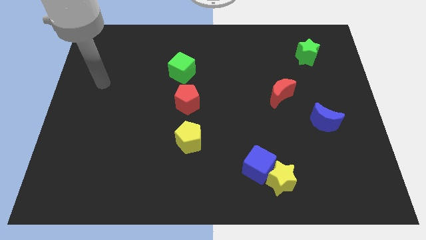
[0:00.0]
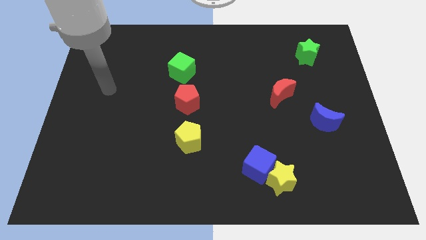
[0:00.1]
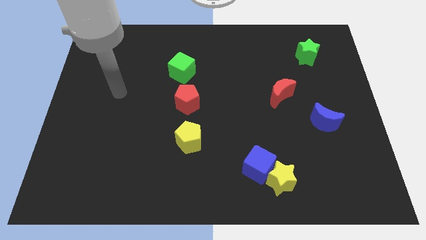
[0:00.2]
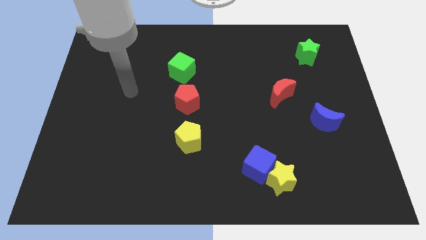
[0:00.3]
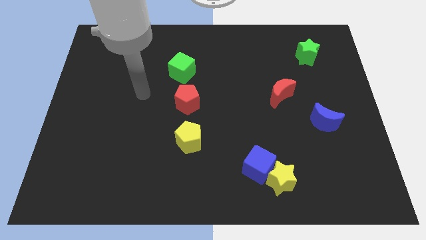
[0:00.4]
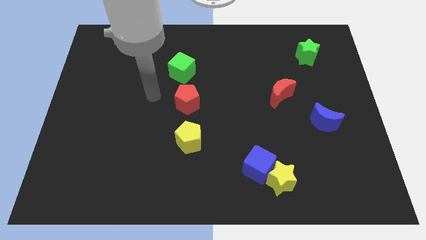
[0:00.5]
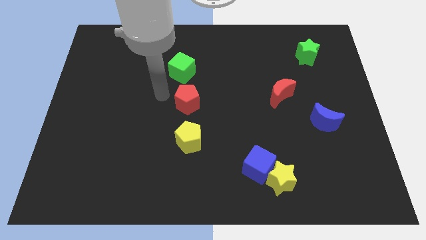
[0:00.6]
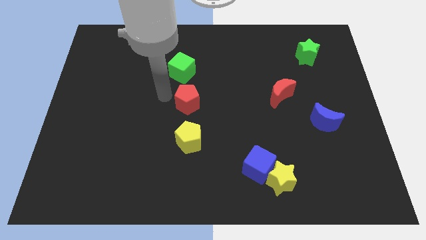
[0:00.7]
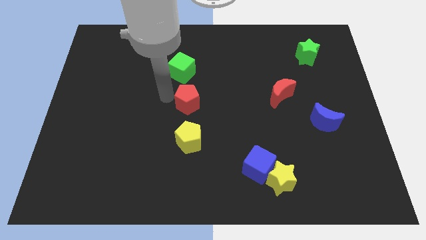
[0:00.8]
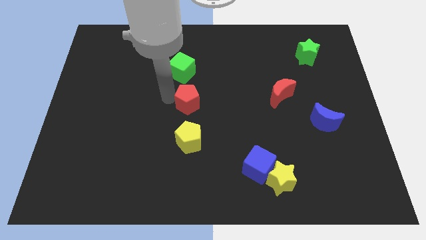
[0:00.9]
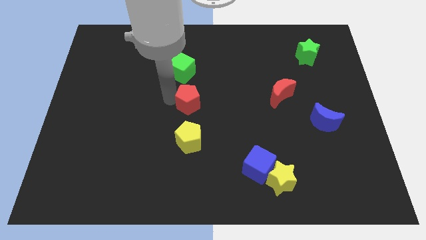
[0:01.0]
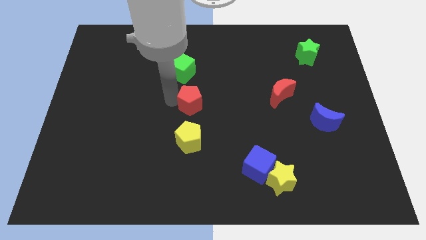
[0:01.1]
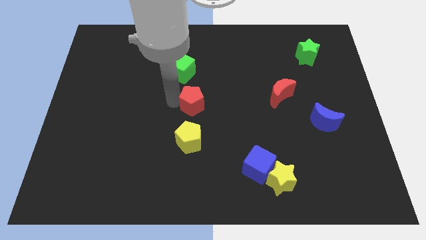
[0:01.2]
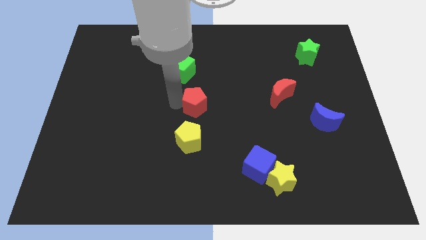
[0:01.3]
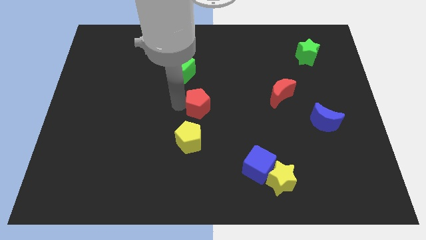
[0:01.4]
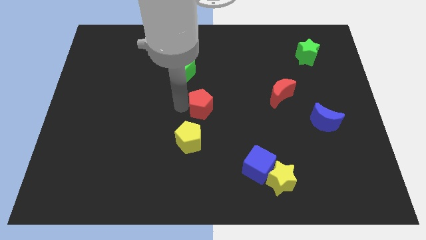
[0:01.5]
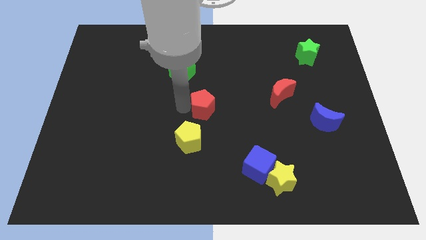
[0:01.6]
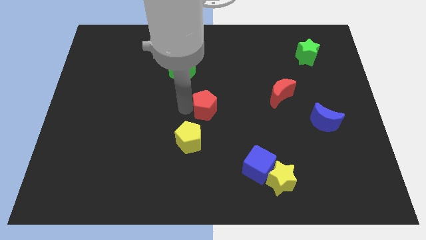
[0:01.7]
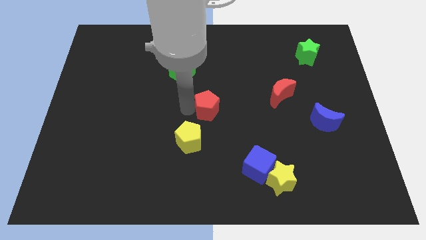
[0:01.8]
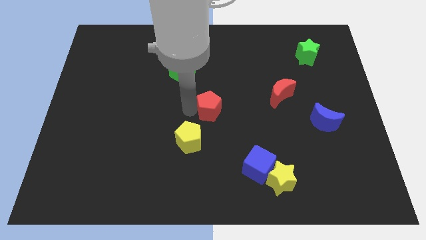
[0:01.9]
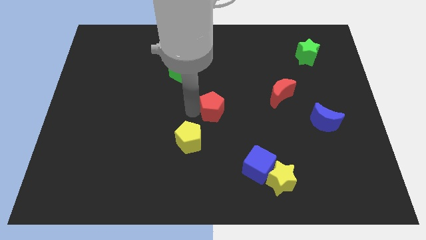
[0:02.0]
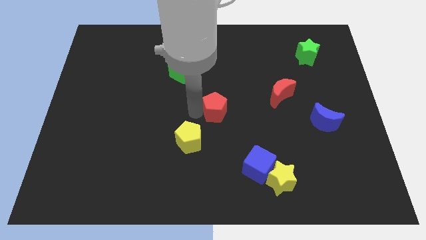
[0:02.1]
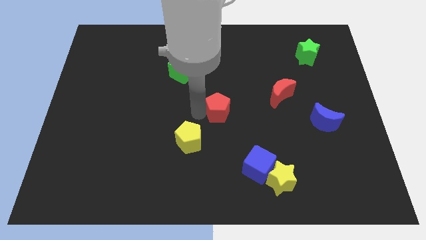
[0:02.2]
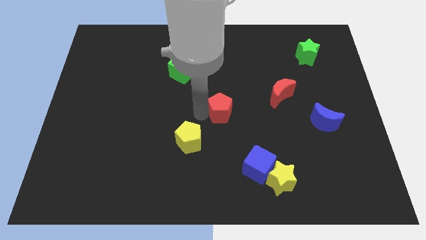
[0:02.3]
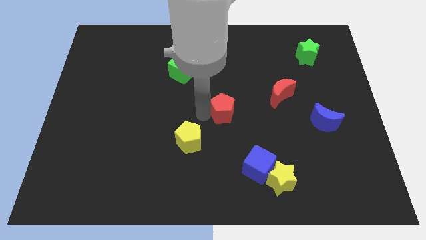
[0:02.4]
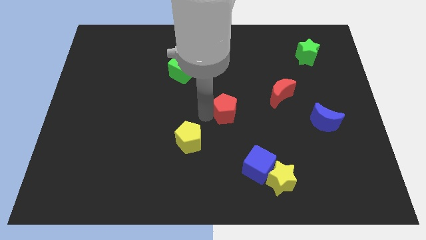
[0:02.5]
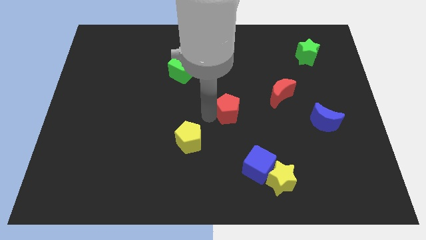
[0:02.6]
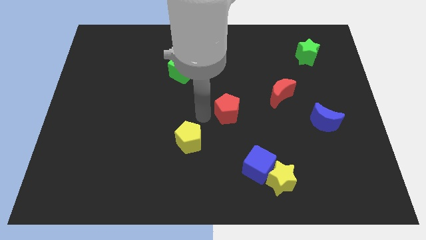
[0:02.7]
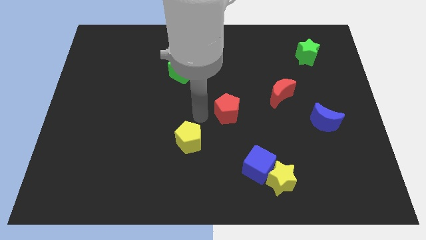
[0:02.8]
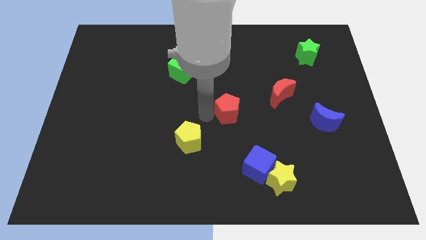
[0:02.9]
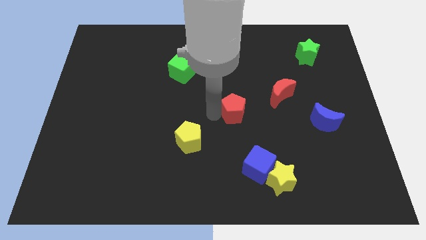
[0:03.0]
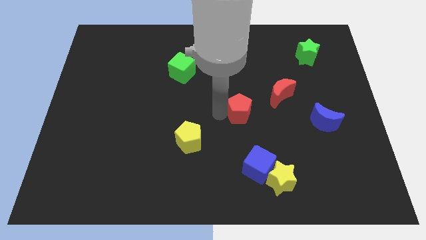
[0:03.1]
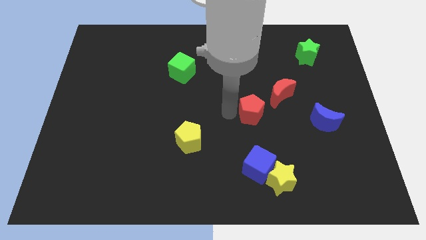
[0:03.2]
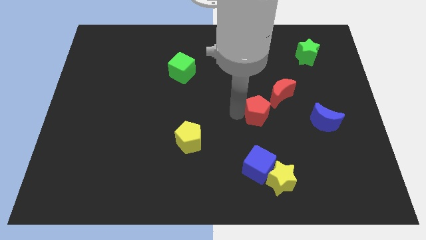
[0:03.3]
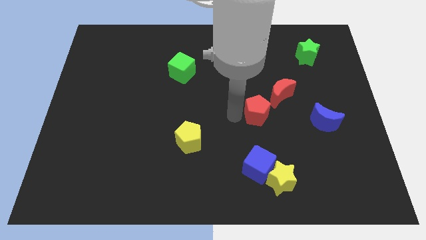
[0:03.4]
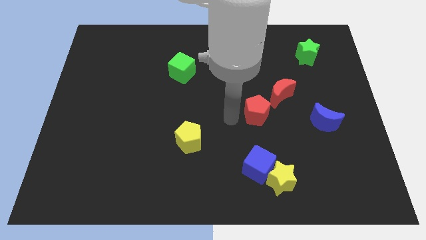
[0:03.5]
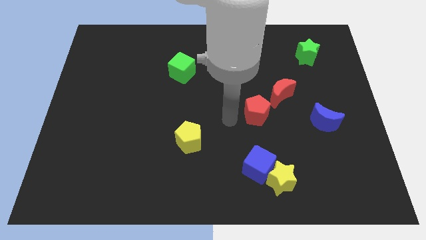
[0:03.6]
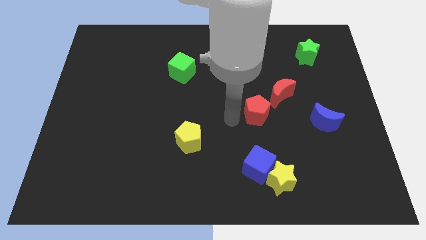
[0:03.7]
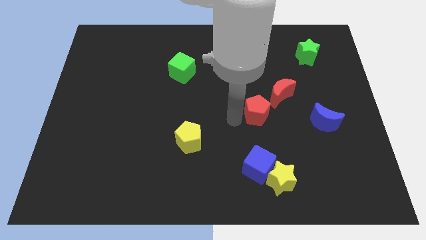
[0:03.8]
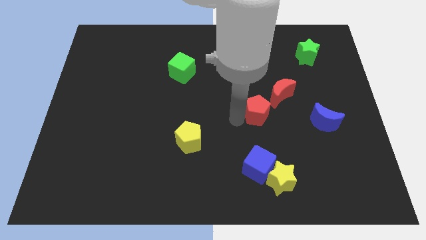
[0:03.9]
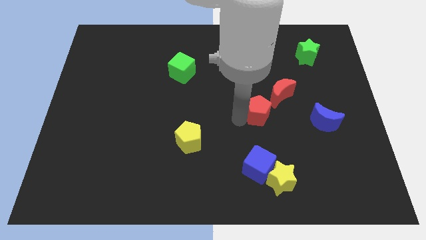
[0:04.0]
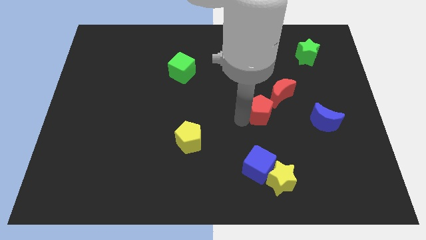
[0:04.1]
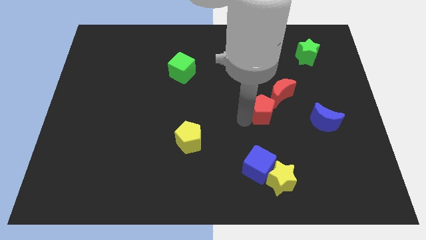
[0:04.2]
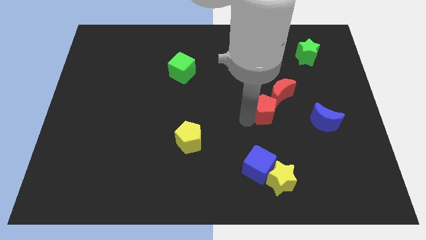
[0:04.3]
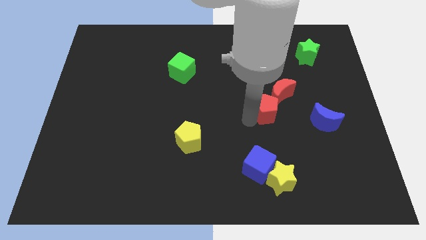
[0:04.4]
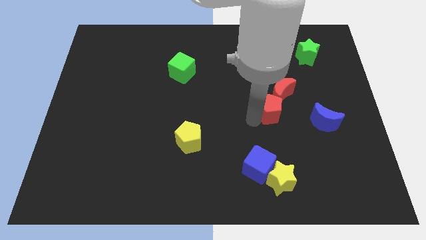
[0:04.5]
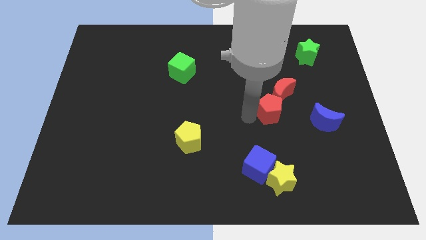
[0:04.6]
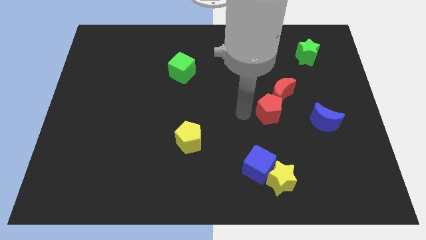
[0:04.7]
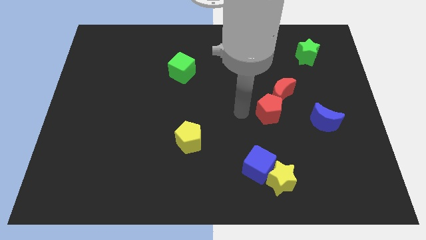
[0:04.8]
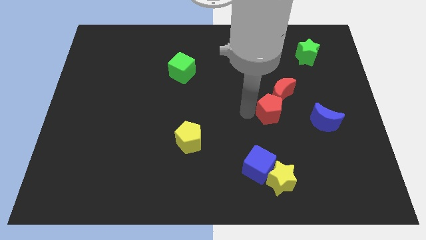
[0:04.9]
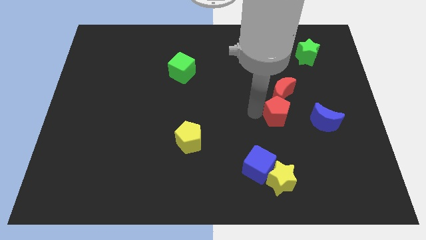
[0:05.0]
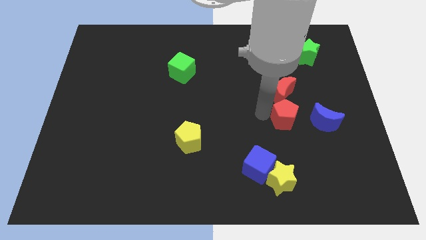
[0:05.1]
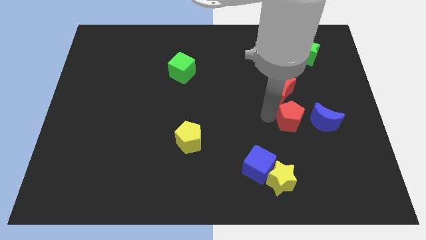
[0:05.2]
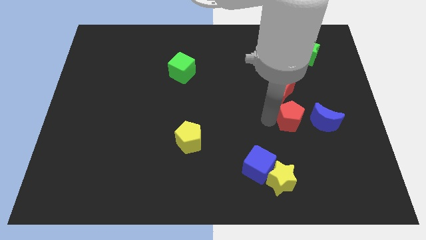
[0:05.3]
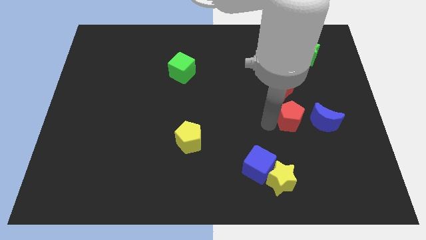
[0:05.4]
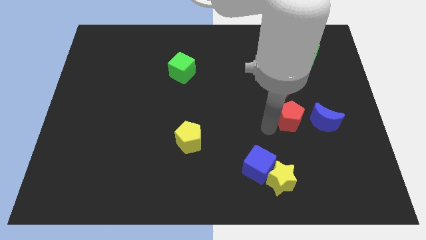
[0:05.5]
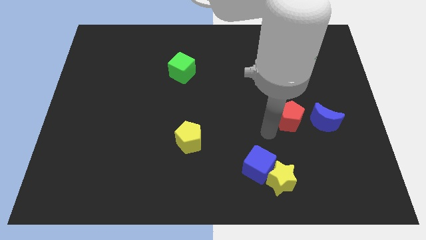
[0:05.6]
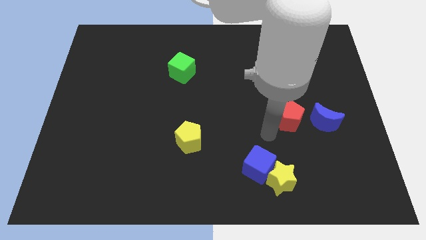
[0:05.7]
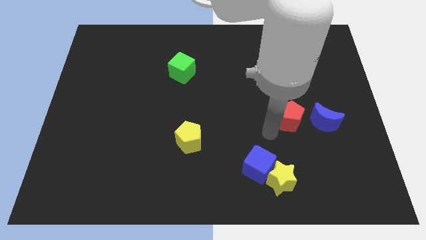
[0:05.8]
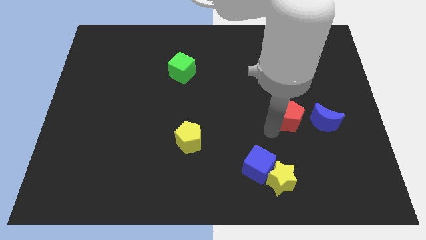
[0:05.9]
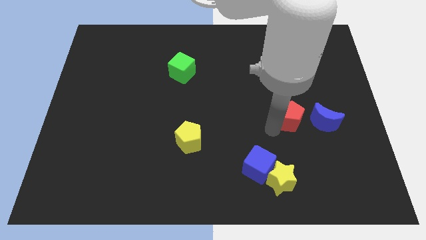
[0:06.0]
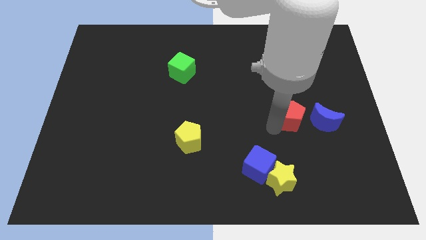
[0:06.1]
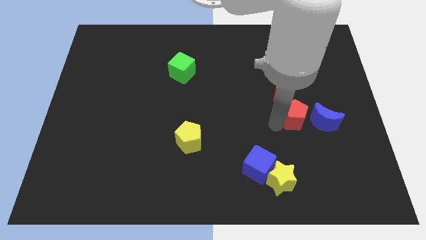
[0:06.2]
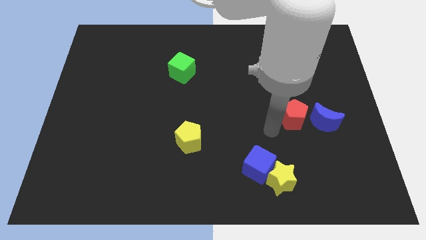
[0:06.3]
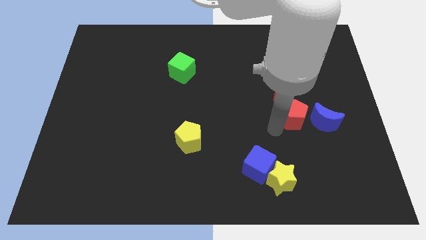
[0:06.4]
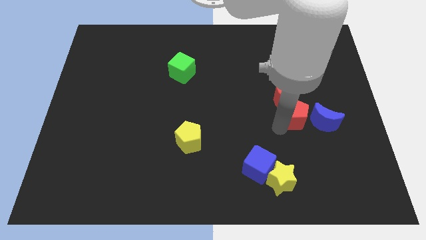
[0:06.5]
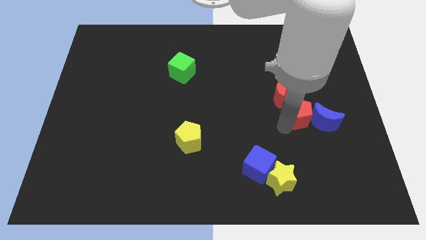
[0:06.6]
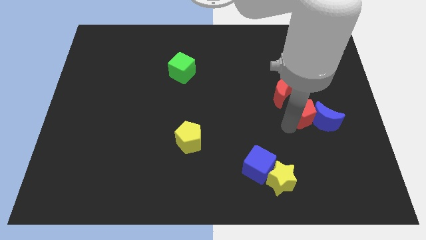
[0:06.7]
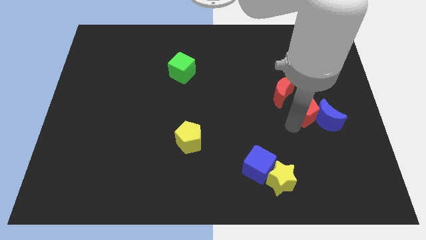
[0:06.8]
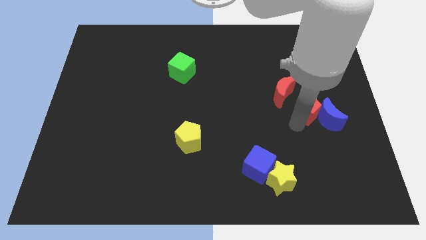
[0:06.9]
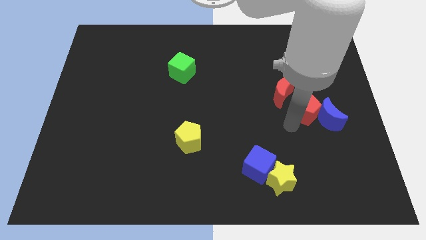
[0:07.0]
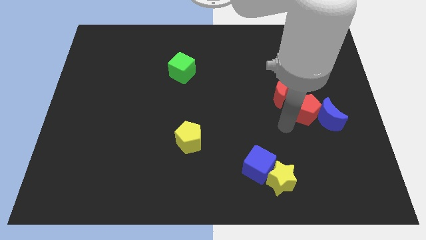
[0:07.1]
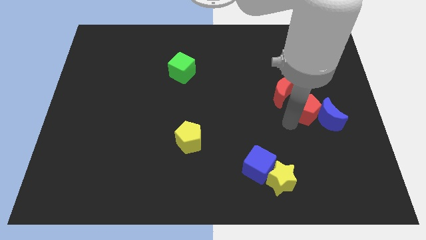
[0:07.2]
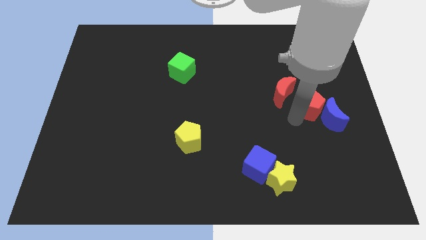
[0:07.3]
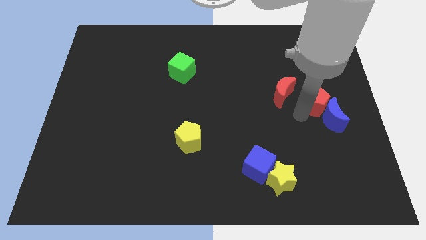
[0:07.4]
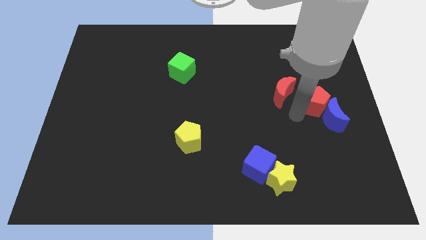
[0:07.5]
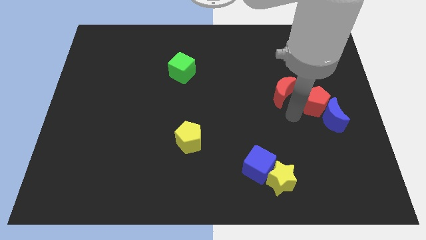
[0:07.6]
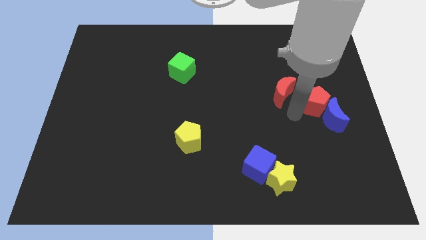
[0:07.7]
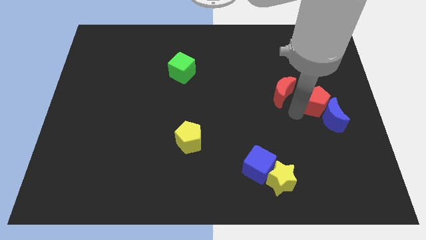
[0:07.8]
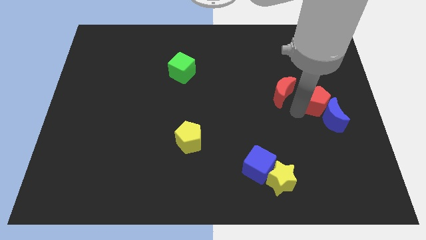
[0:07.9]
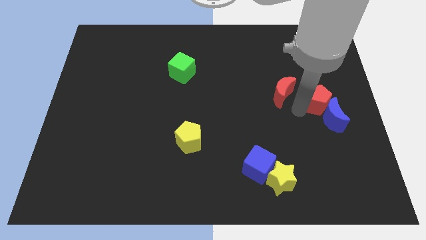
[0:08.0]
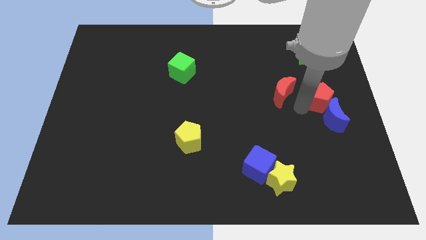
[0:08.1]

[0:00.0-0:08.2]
slide the red pentagon to the right side
